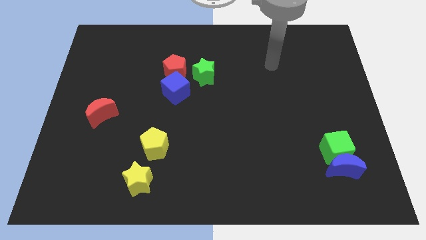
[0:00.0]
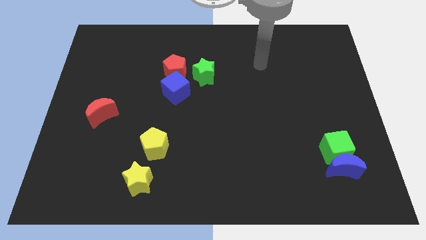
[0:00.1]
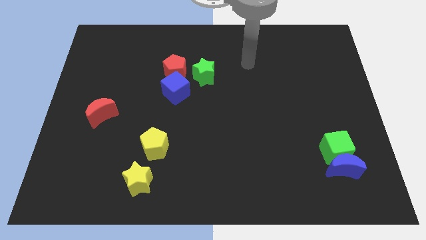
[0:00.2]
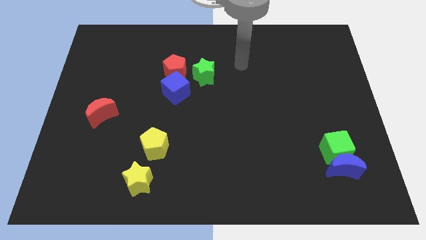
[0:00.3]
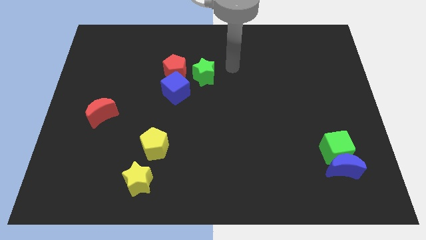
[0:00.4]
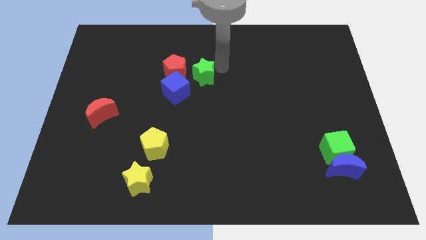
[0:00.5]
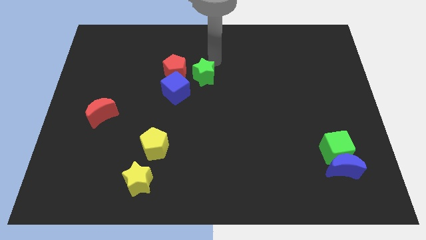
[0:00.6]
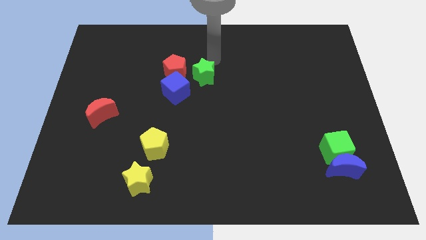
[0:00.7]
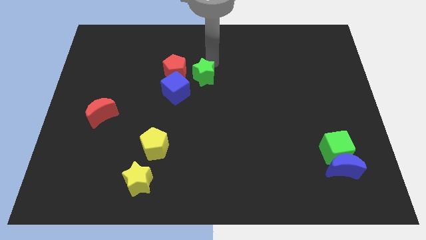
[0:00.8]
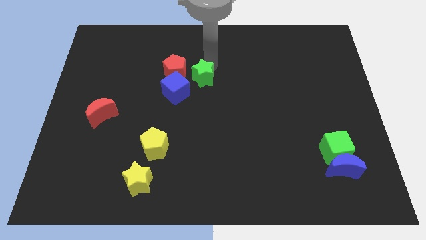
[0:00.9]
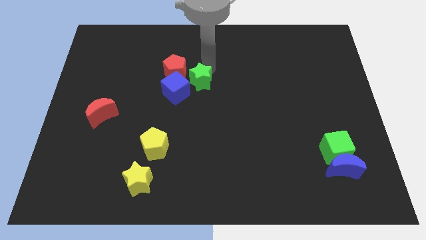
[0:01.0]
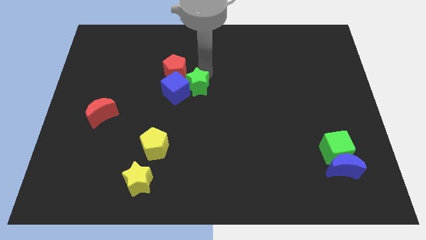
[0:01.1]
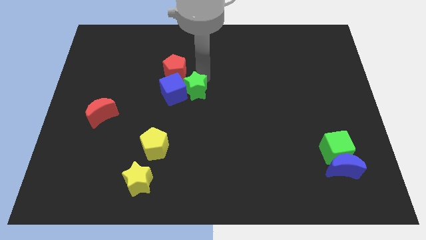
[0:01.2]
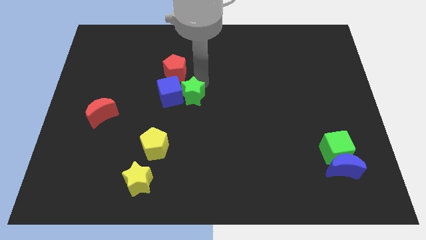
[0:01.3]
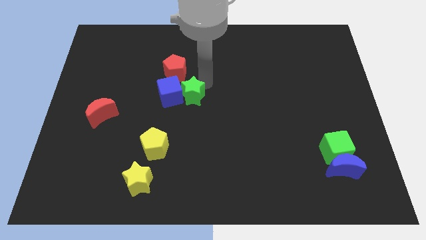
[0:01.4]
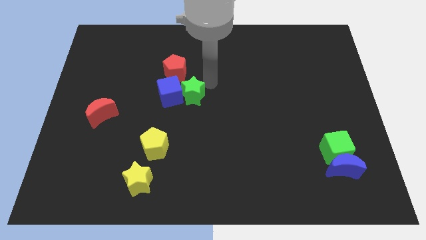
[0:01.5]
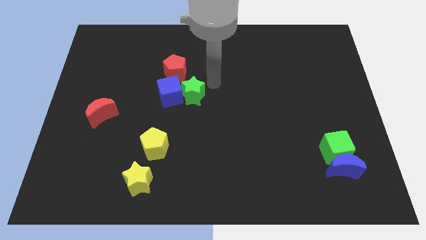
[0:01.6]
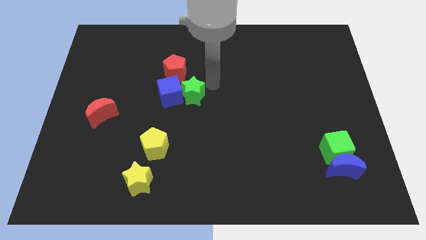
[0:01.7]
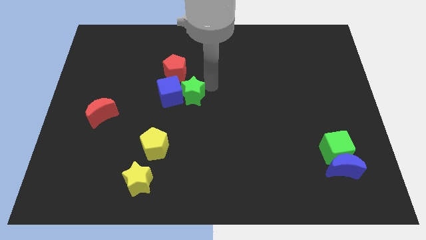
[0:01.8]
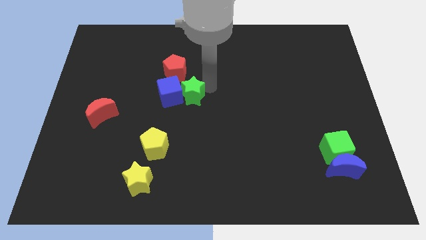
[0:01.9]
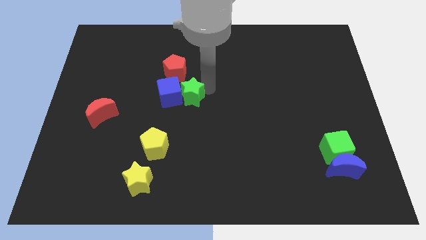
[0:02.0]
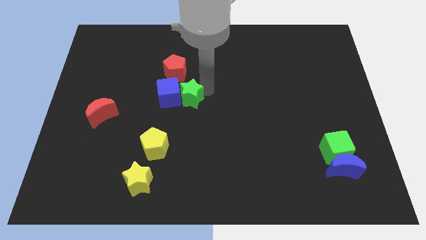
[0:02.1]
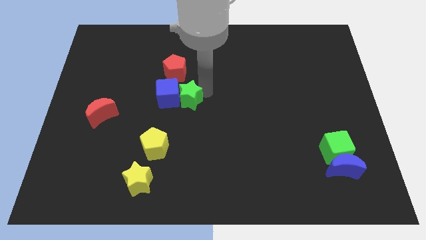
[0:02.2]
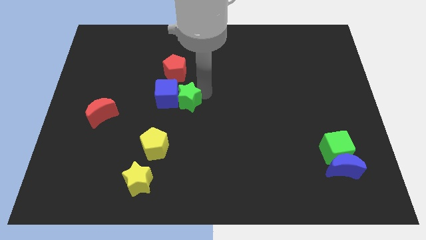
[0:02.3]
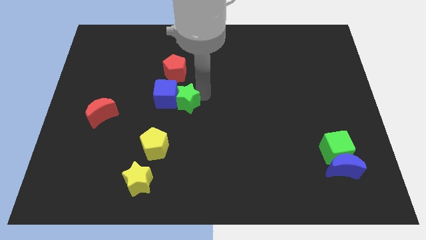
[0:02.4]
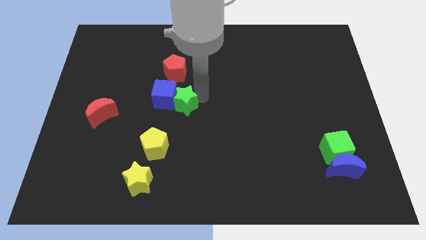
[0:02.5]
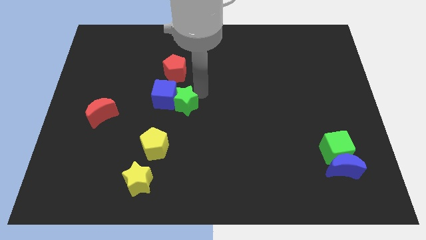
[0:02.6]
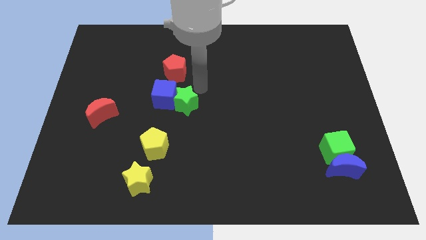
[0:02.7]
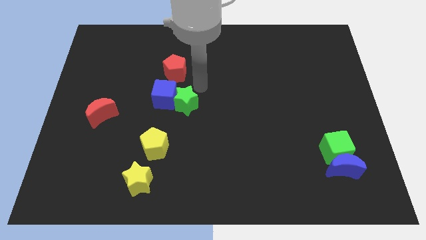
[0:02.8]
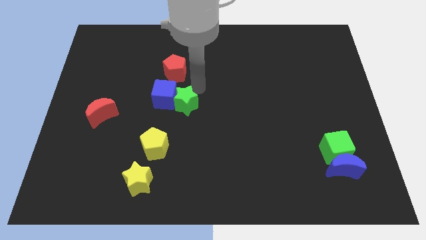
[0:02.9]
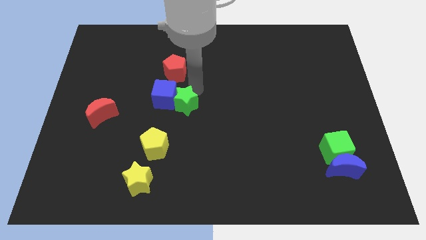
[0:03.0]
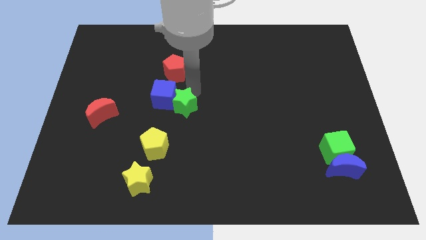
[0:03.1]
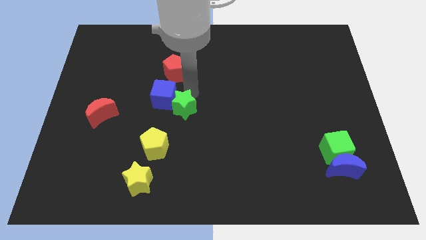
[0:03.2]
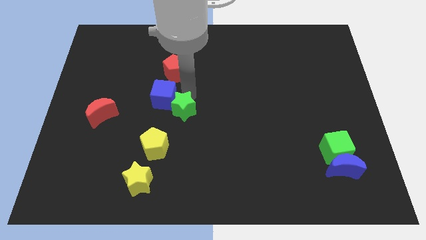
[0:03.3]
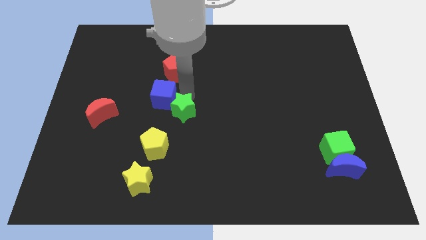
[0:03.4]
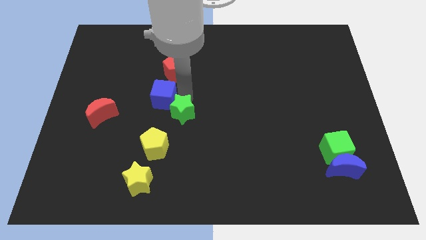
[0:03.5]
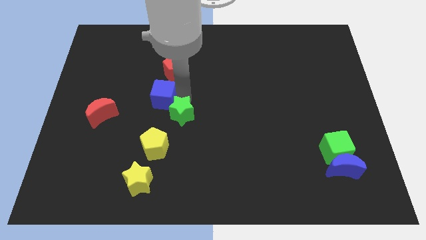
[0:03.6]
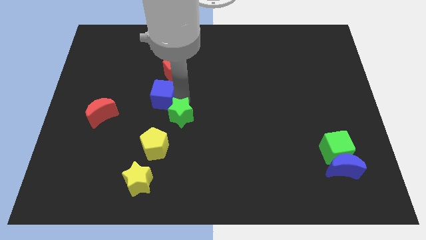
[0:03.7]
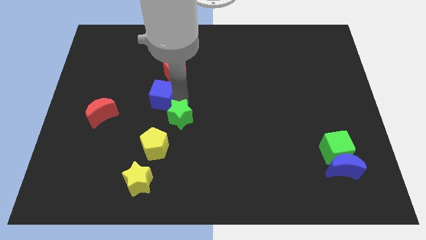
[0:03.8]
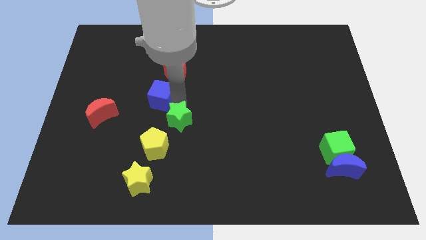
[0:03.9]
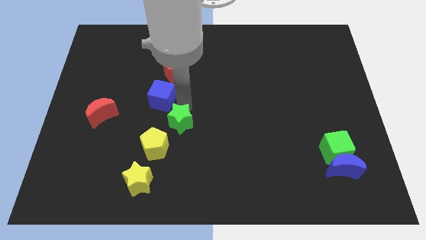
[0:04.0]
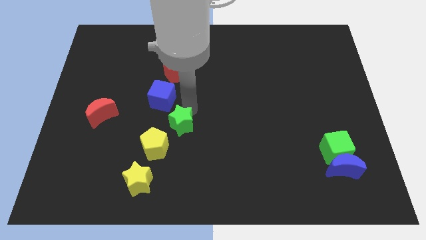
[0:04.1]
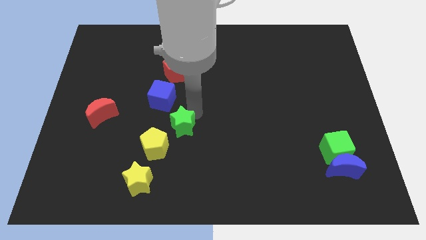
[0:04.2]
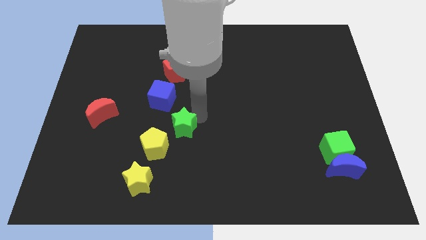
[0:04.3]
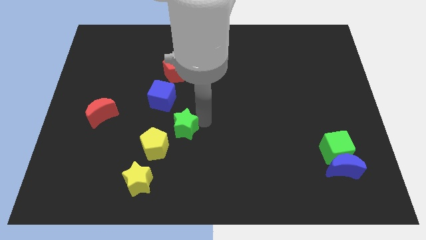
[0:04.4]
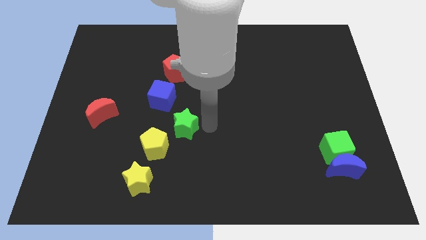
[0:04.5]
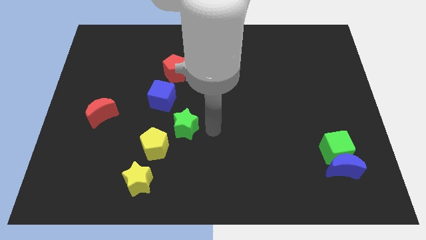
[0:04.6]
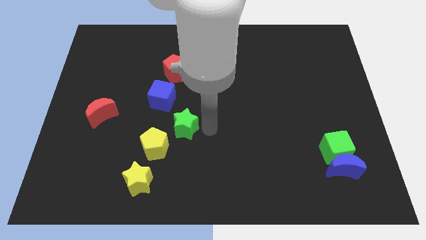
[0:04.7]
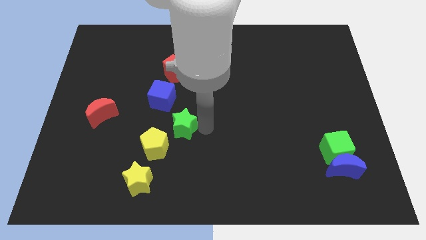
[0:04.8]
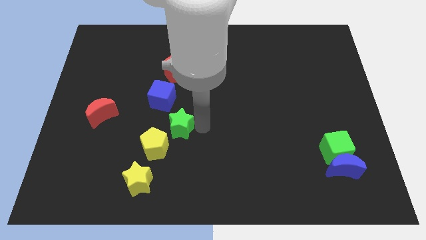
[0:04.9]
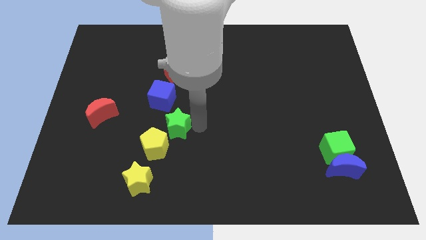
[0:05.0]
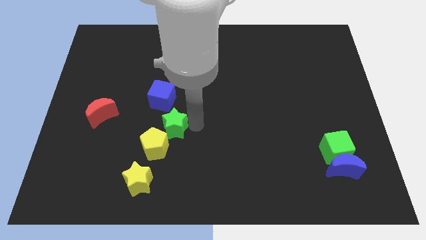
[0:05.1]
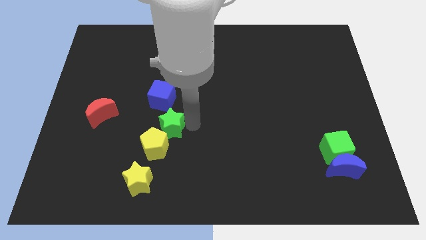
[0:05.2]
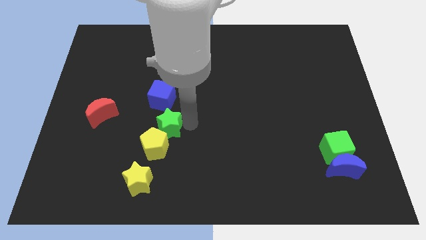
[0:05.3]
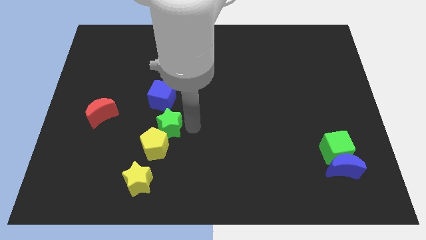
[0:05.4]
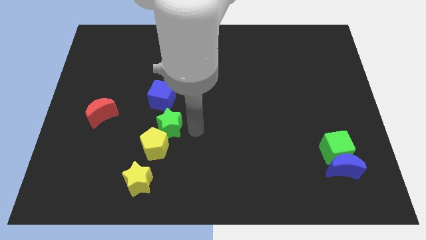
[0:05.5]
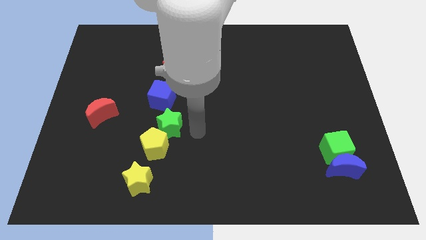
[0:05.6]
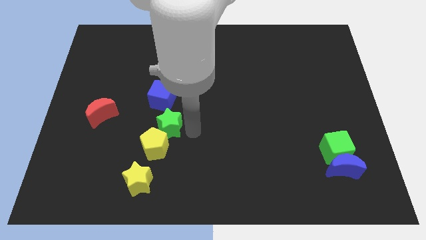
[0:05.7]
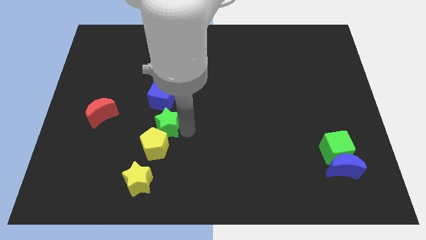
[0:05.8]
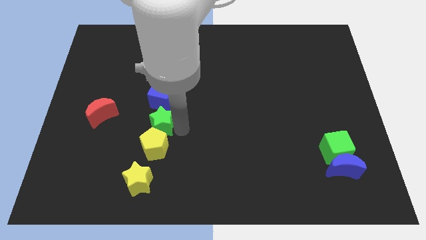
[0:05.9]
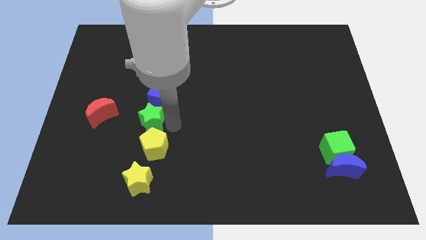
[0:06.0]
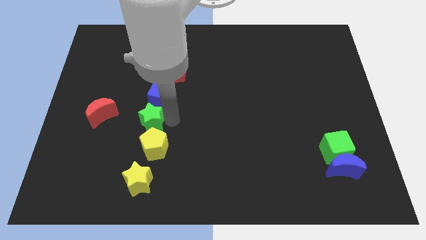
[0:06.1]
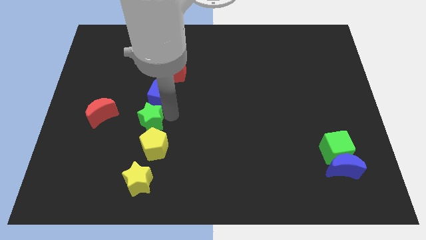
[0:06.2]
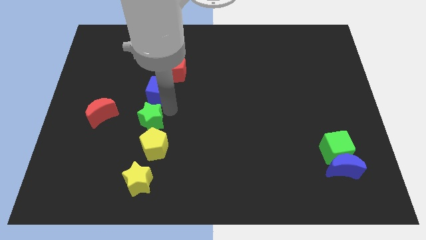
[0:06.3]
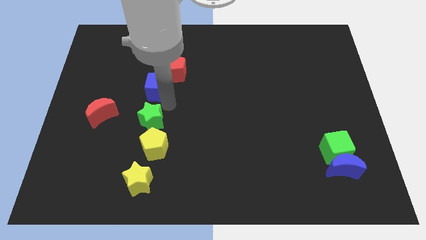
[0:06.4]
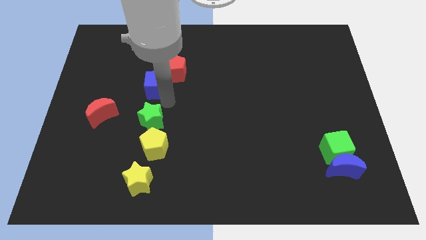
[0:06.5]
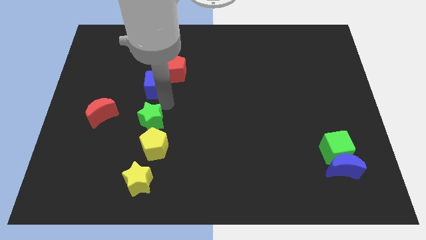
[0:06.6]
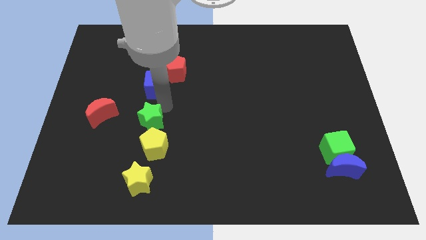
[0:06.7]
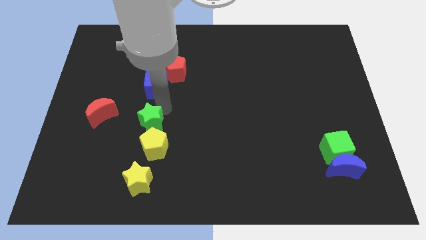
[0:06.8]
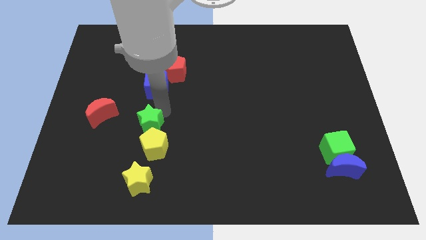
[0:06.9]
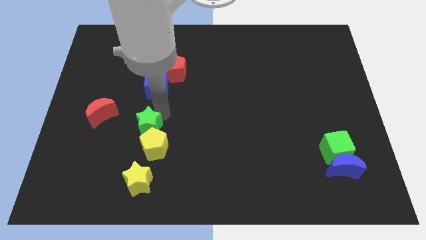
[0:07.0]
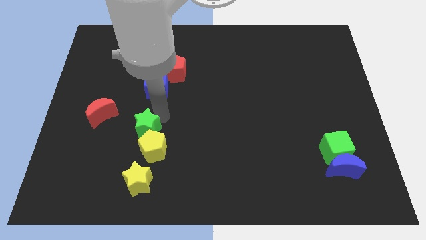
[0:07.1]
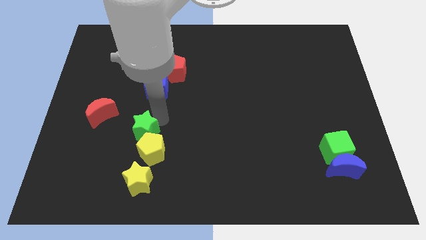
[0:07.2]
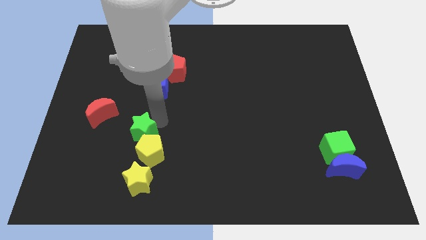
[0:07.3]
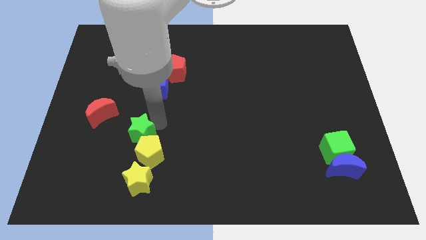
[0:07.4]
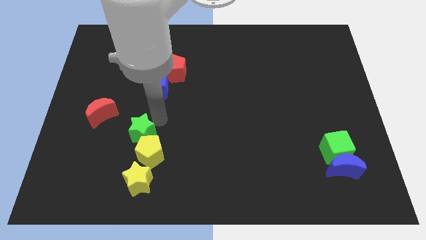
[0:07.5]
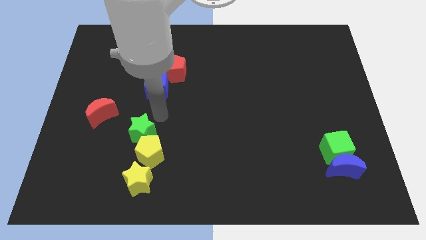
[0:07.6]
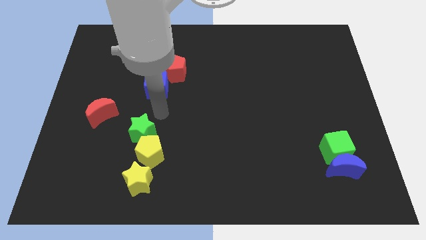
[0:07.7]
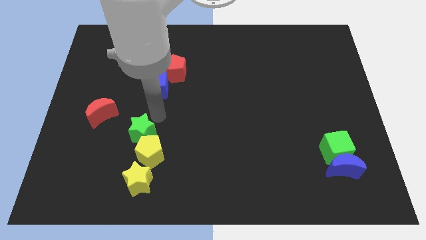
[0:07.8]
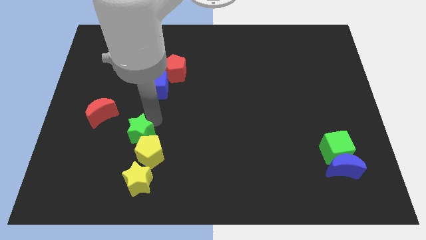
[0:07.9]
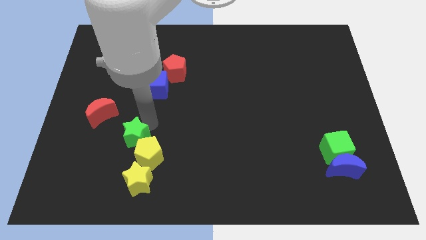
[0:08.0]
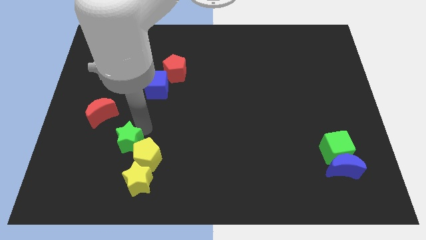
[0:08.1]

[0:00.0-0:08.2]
slide the green star to the top left of the yellow star
